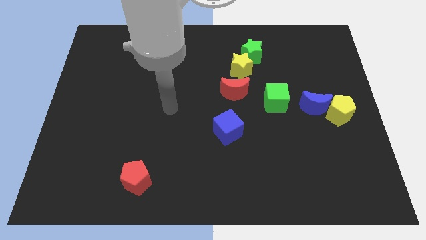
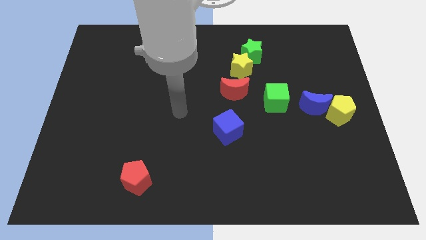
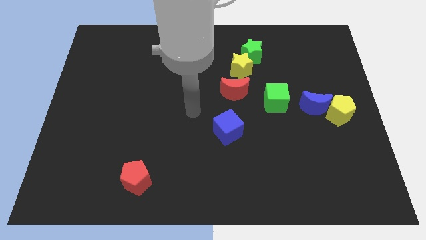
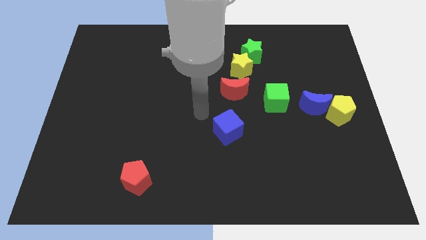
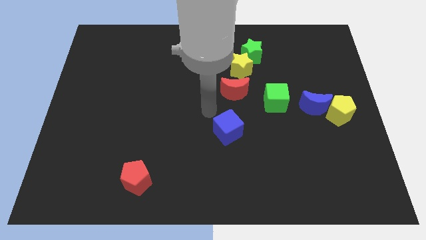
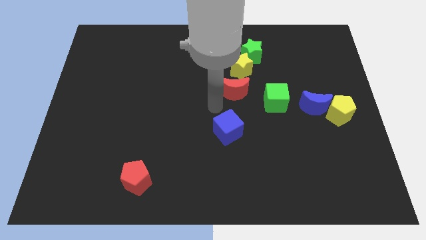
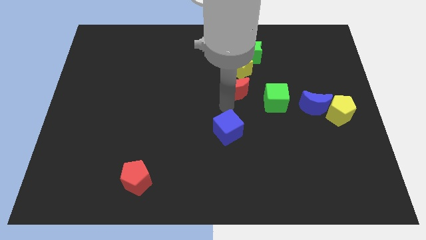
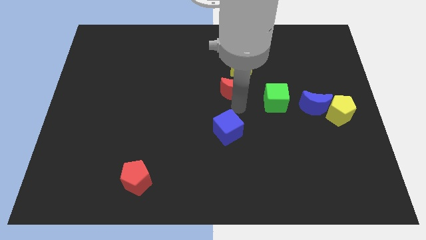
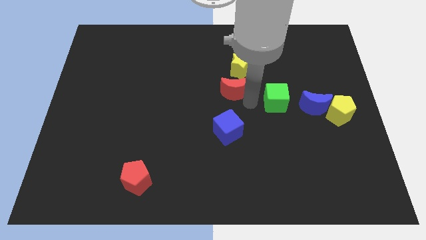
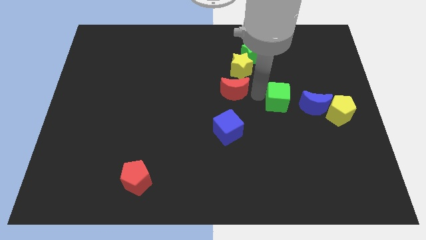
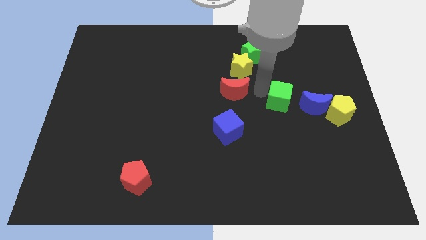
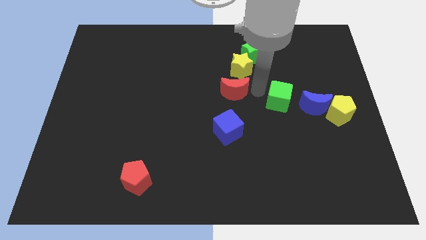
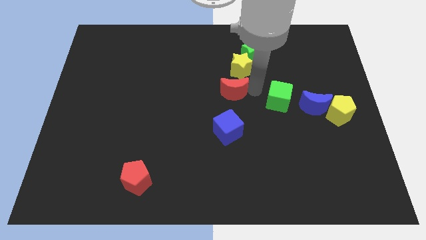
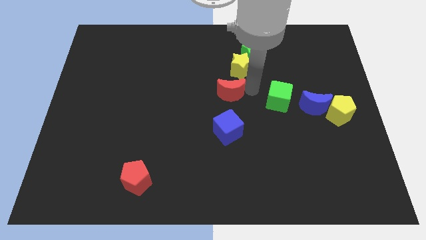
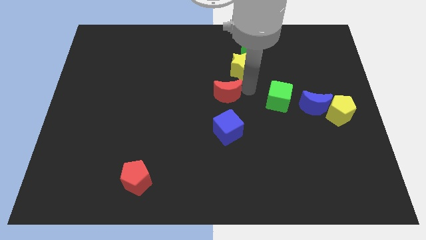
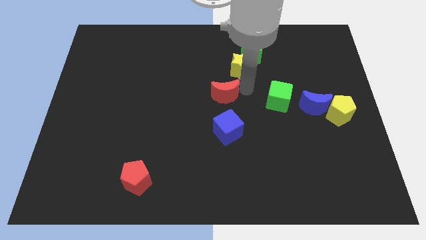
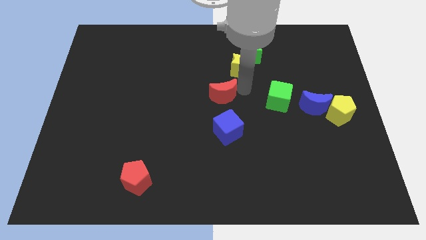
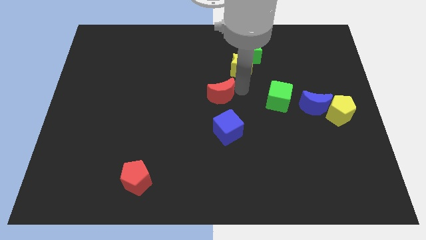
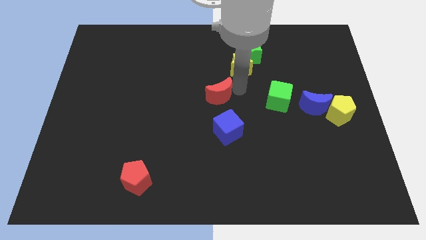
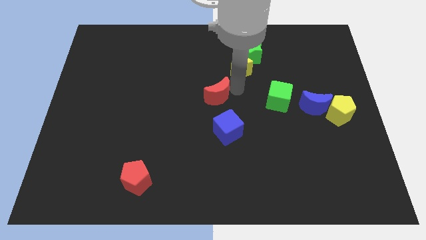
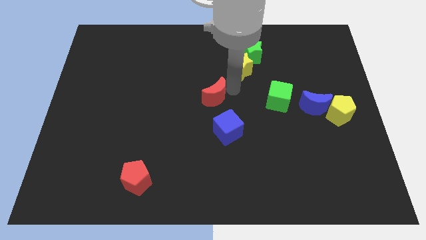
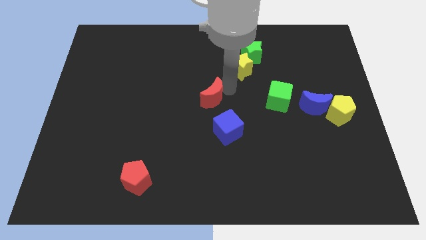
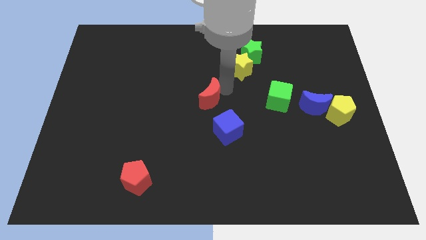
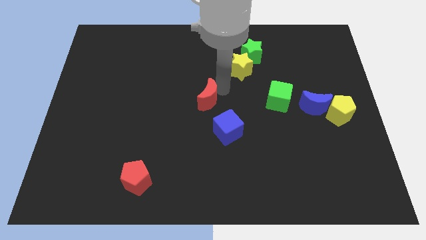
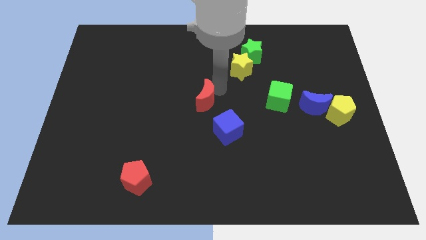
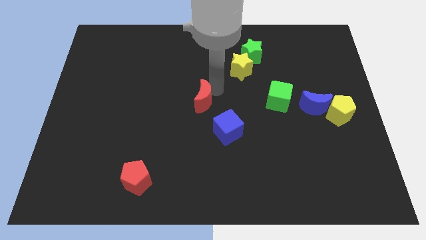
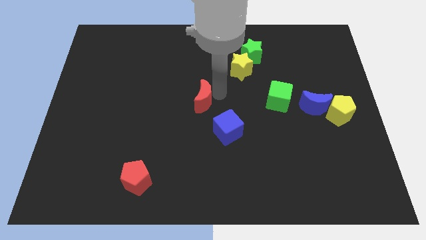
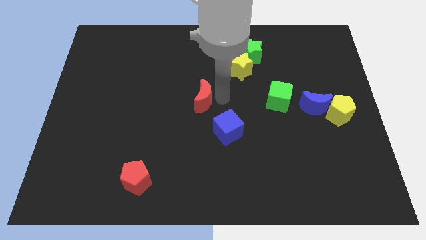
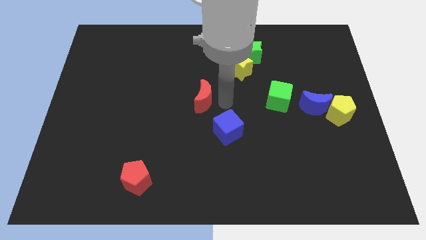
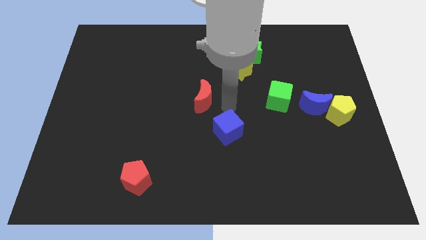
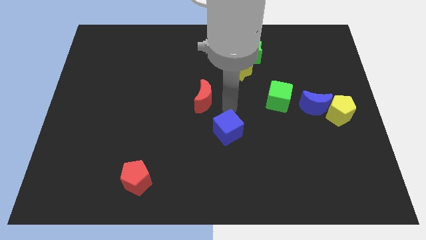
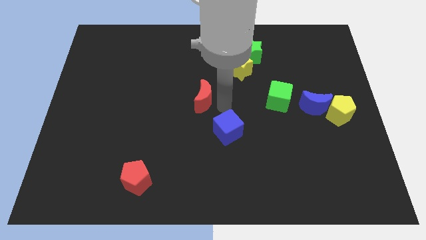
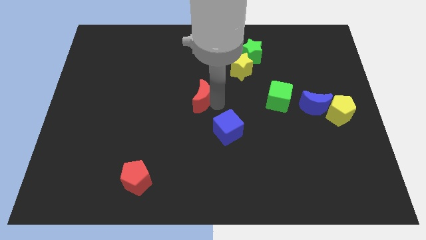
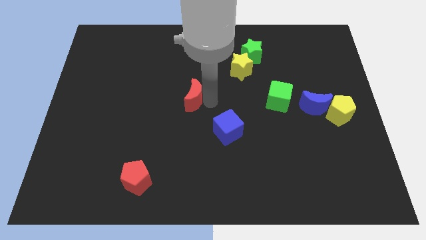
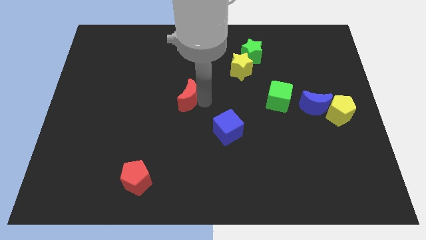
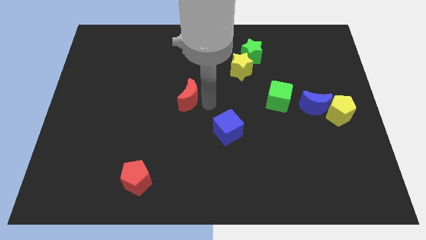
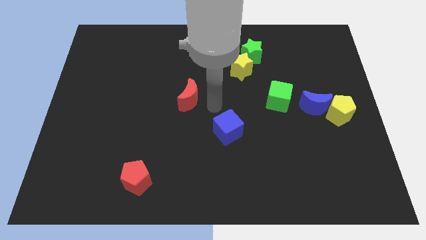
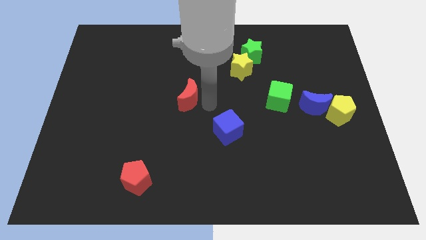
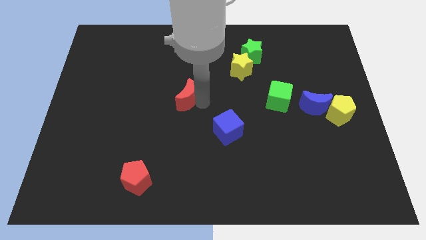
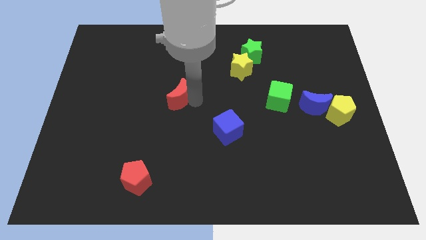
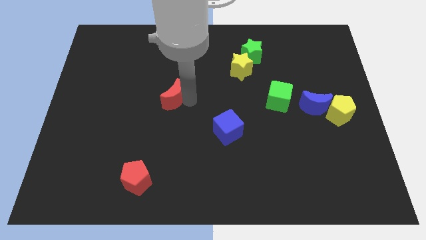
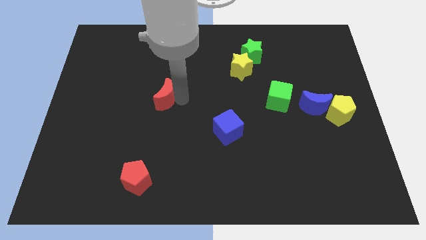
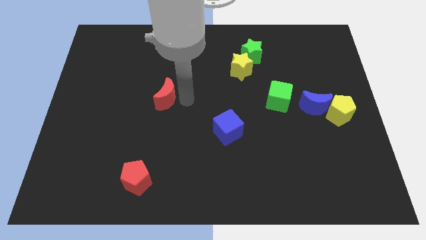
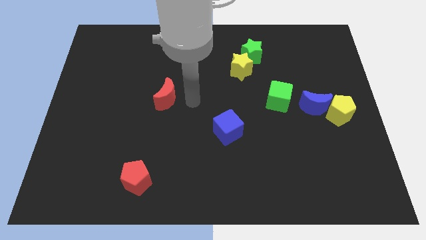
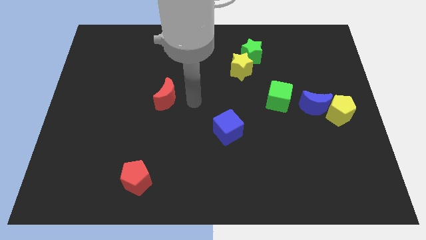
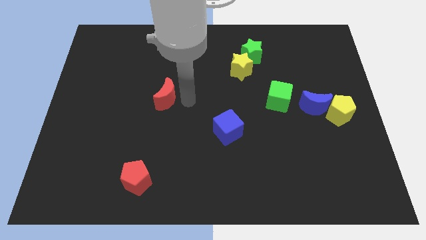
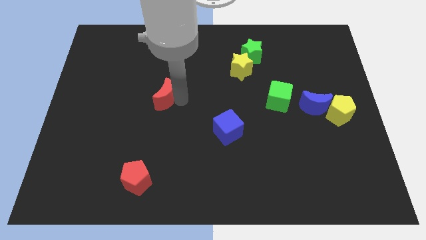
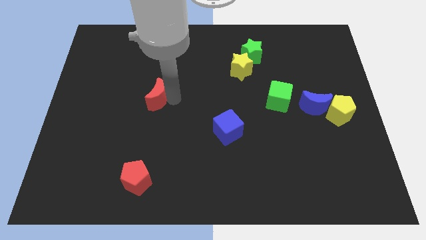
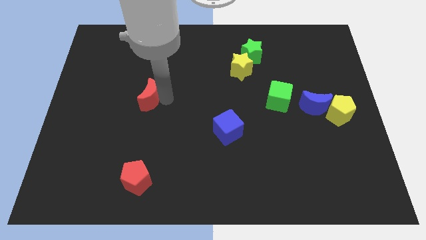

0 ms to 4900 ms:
move the red moon left

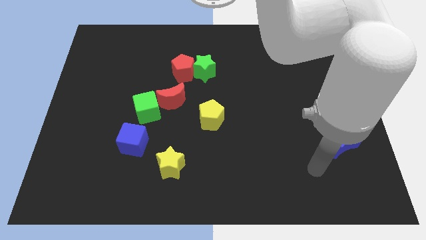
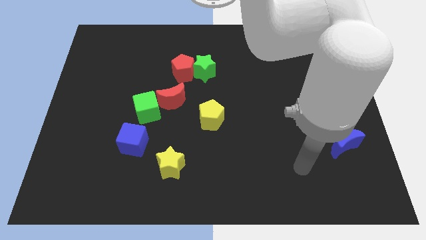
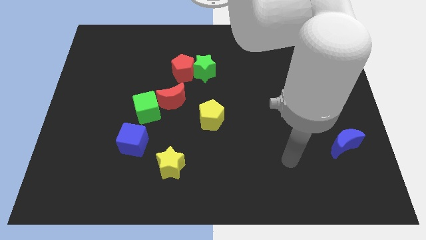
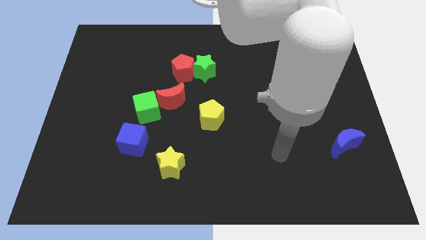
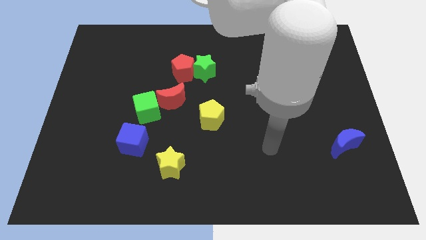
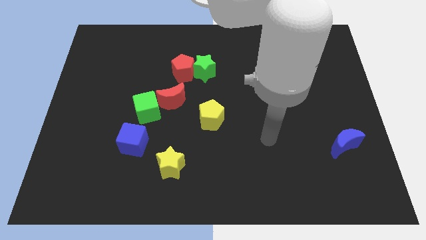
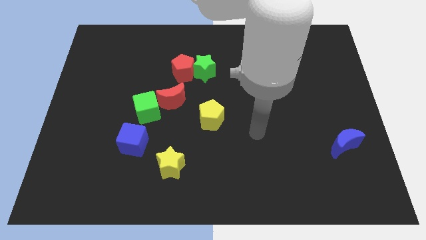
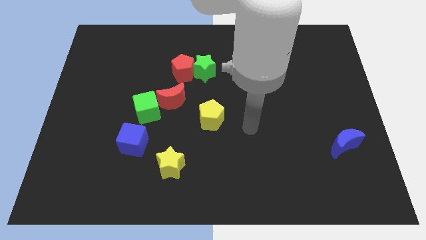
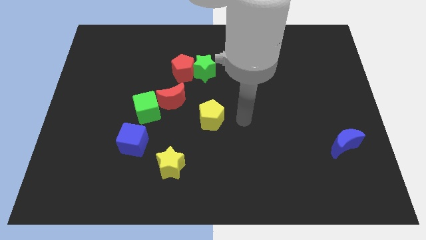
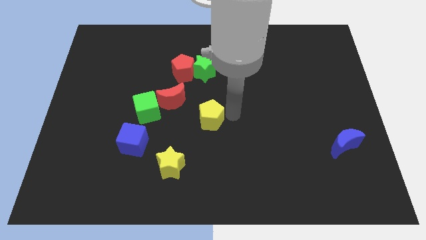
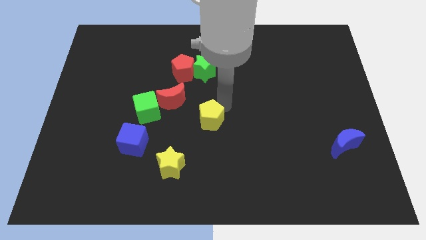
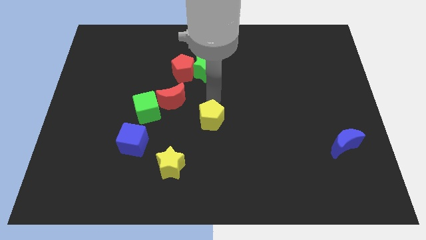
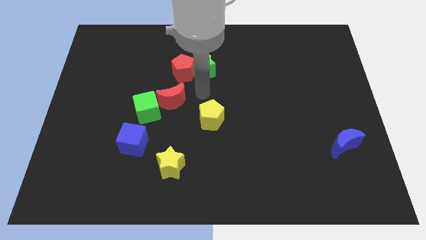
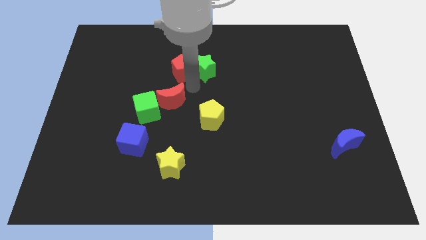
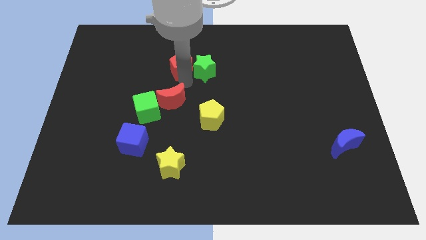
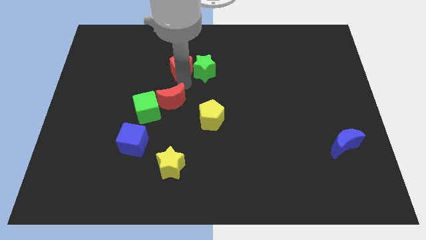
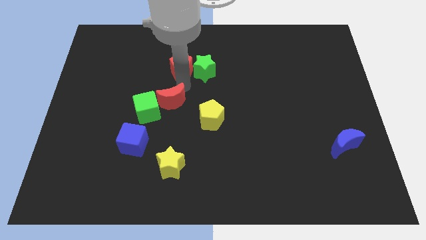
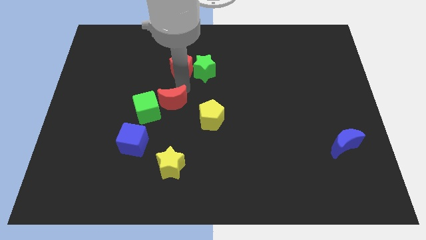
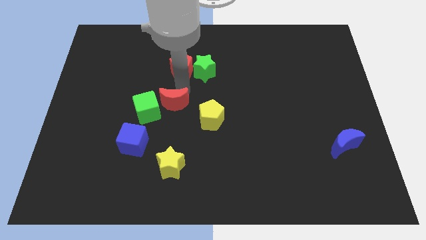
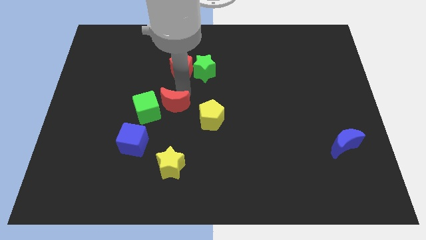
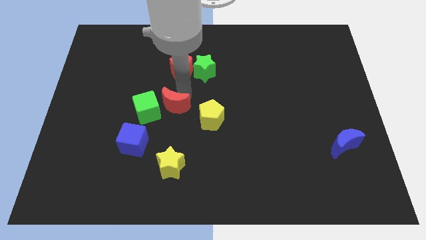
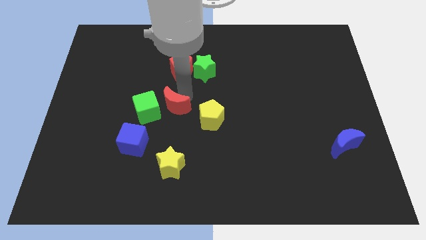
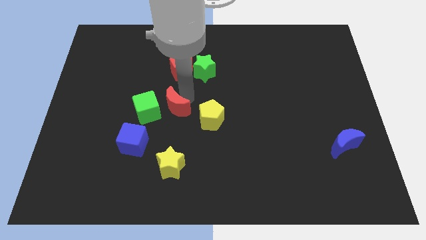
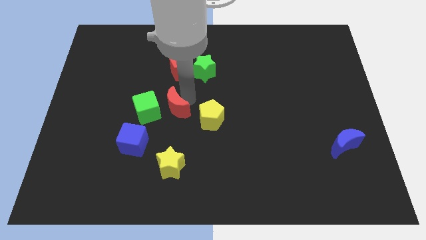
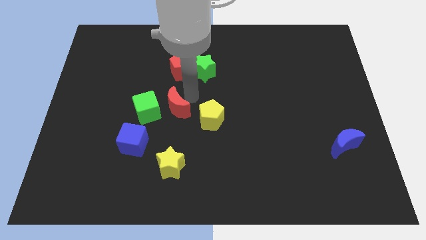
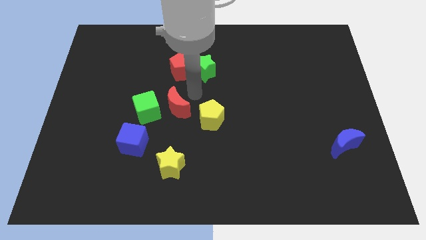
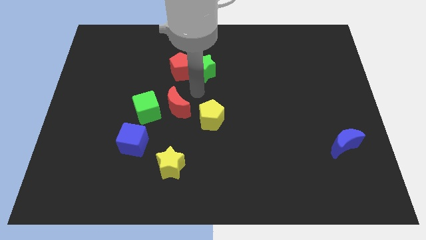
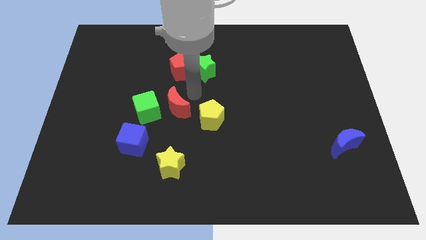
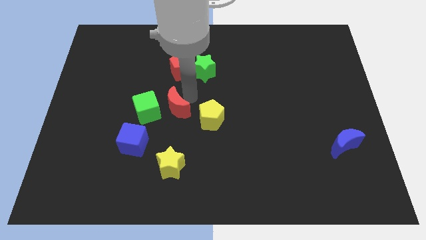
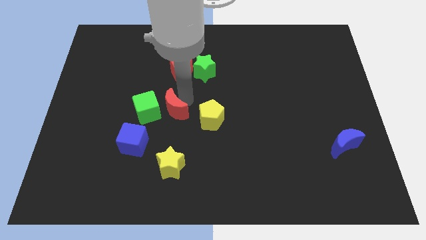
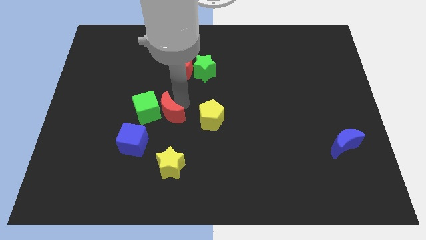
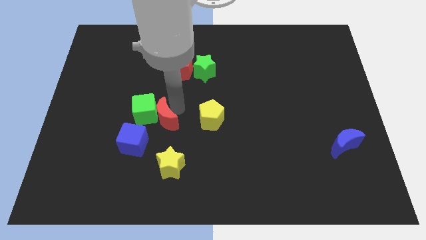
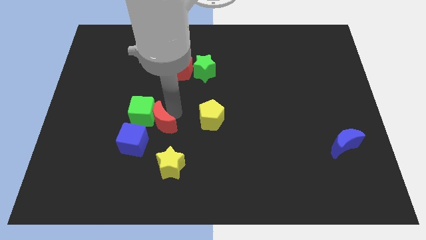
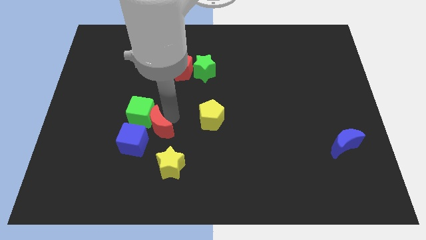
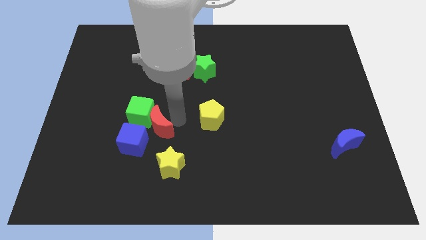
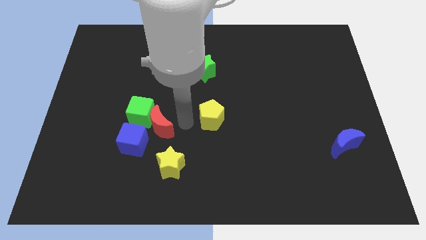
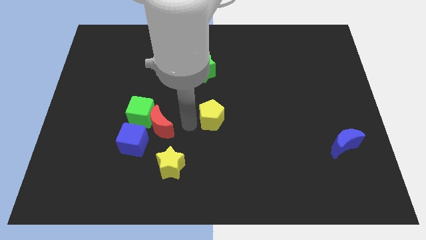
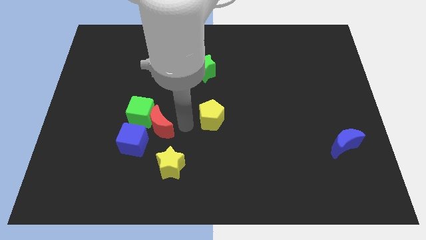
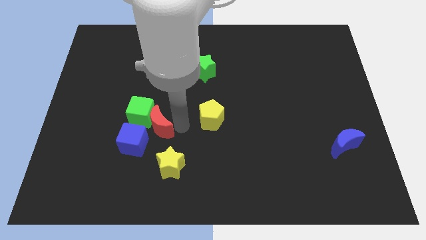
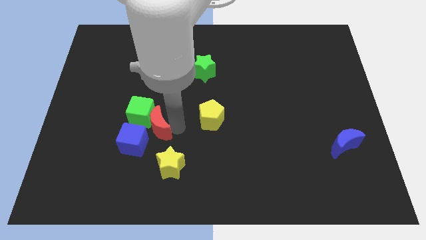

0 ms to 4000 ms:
move the red moon a little bit diagonally down and left
